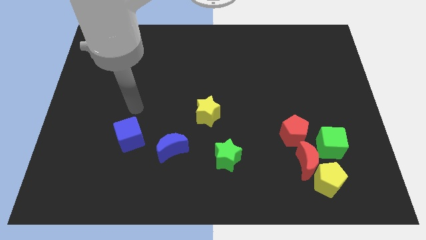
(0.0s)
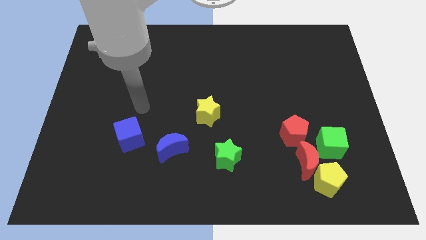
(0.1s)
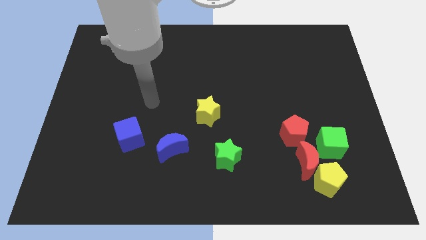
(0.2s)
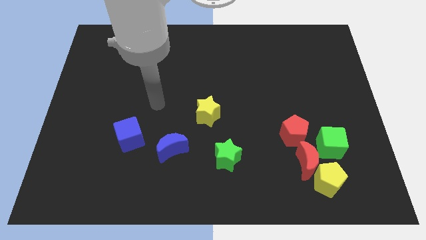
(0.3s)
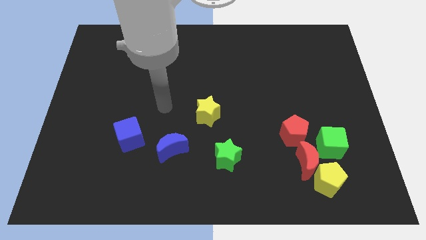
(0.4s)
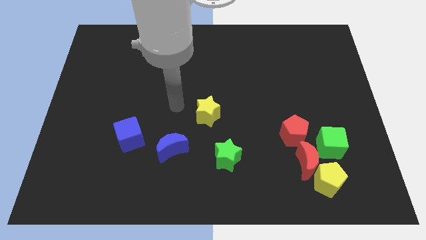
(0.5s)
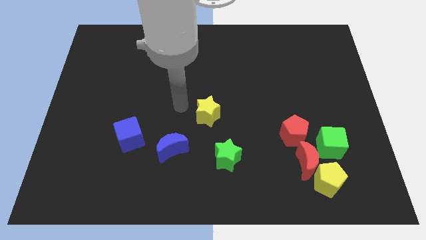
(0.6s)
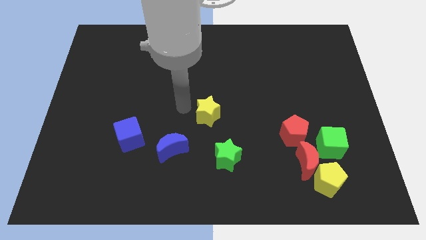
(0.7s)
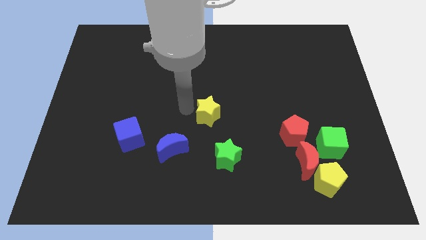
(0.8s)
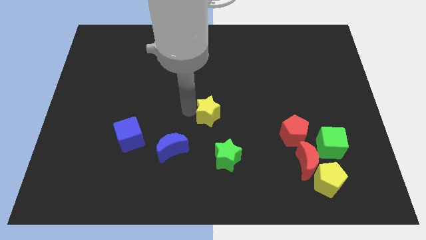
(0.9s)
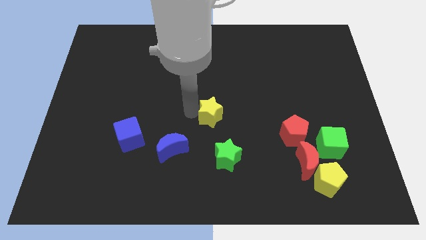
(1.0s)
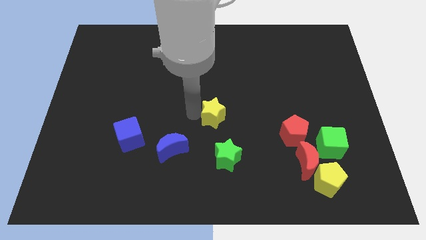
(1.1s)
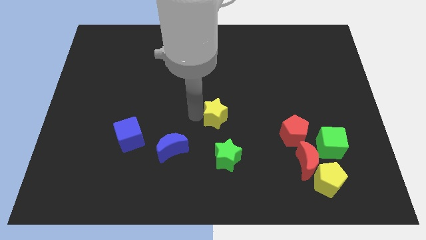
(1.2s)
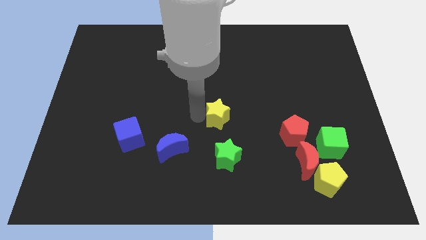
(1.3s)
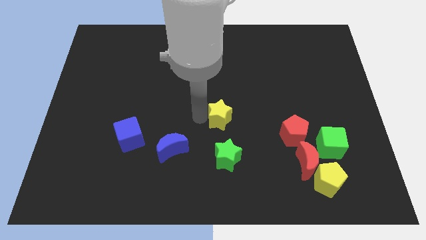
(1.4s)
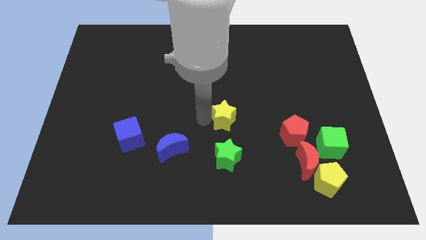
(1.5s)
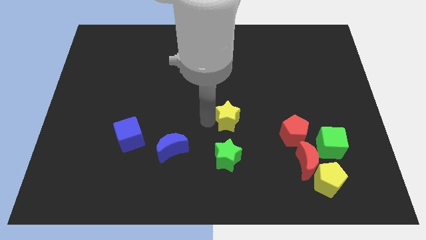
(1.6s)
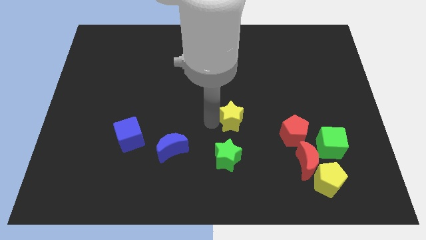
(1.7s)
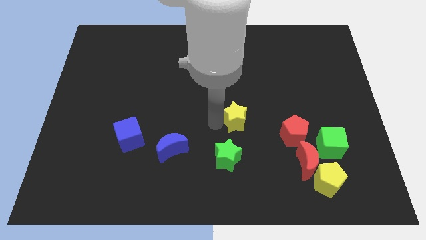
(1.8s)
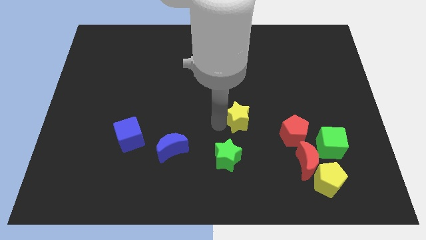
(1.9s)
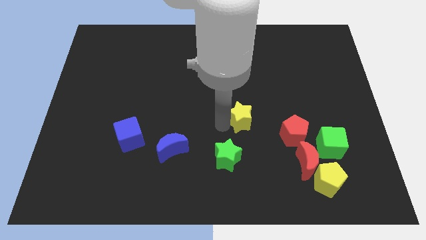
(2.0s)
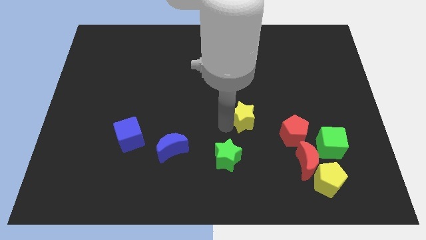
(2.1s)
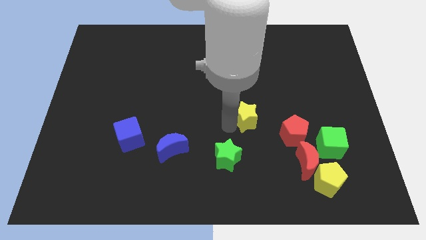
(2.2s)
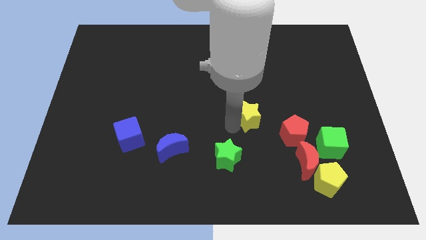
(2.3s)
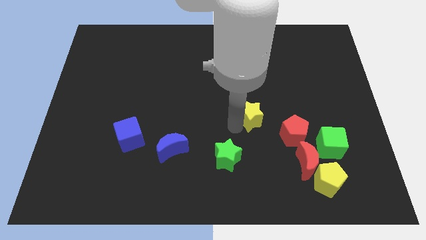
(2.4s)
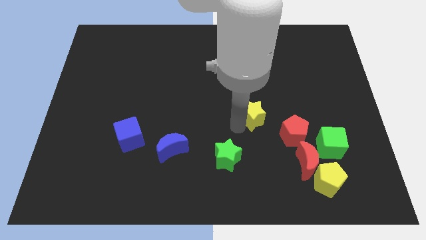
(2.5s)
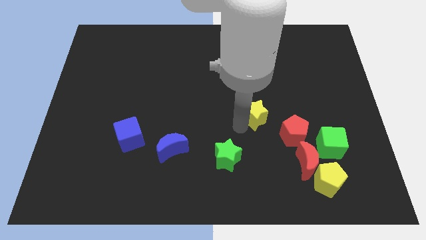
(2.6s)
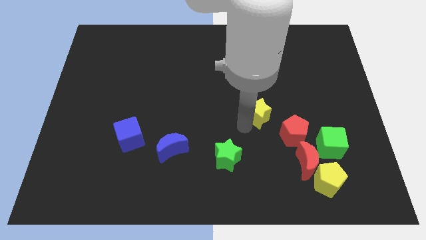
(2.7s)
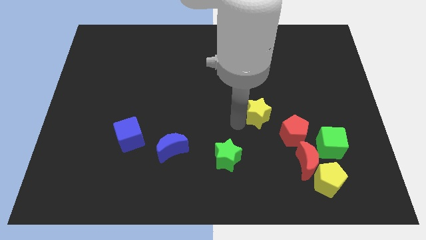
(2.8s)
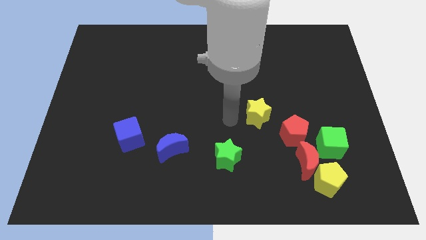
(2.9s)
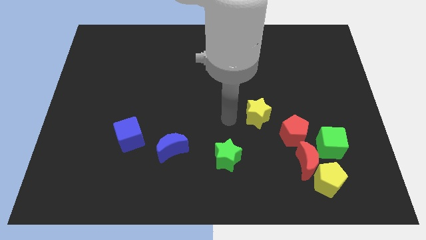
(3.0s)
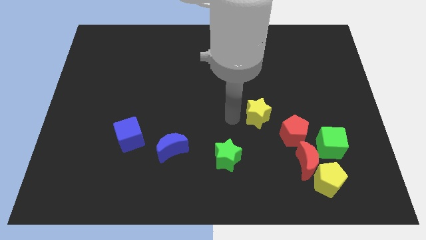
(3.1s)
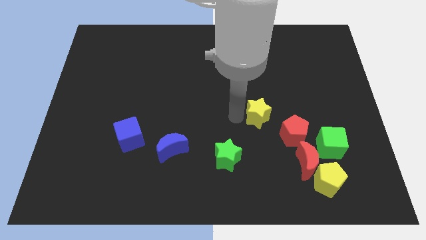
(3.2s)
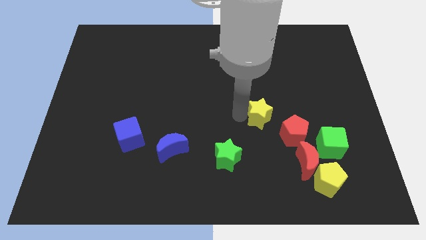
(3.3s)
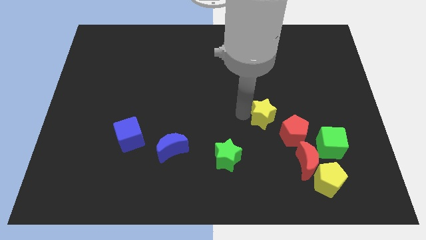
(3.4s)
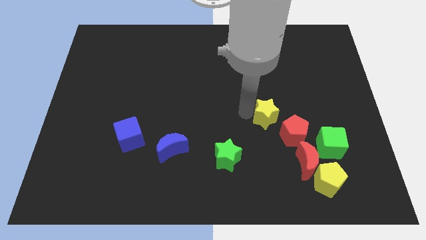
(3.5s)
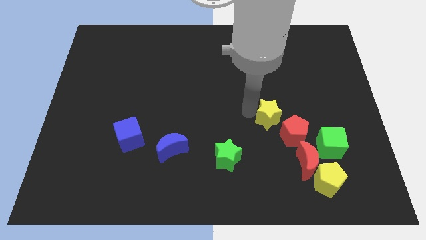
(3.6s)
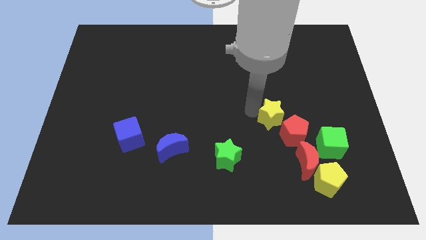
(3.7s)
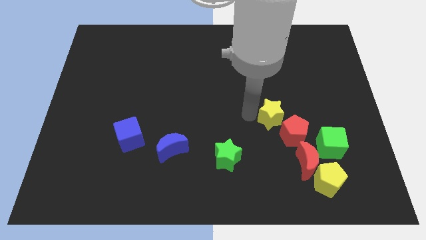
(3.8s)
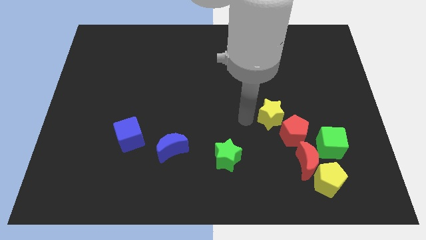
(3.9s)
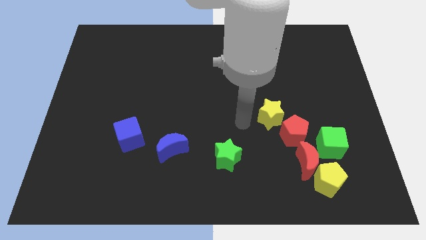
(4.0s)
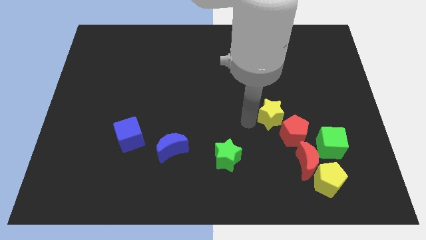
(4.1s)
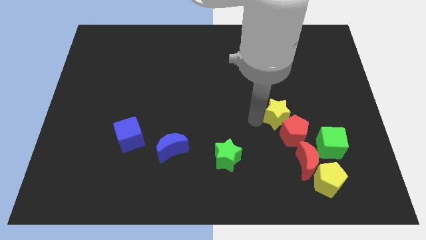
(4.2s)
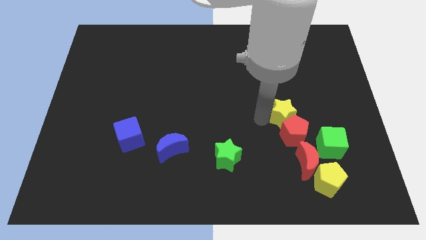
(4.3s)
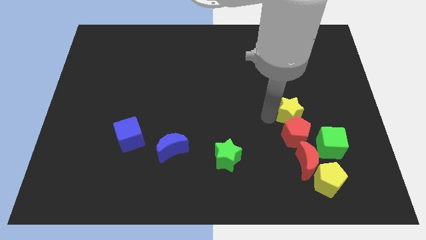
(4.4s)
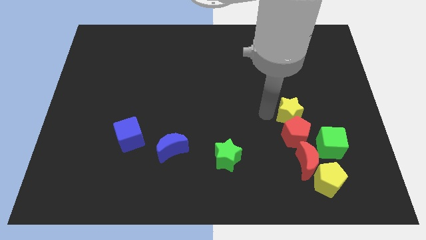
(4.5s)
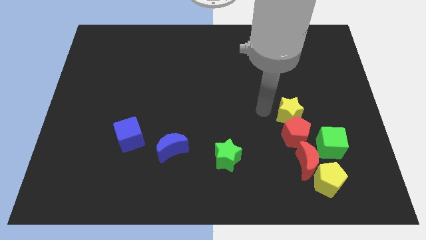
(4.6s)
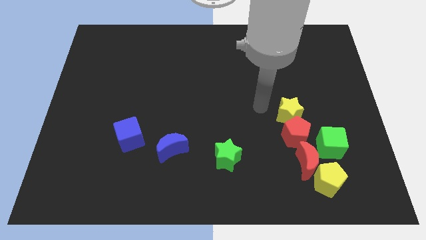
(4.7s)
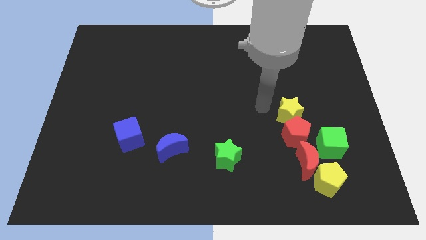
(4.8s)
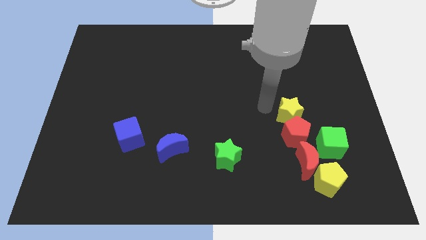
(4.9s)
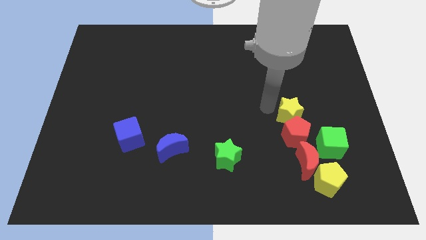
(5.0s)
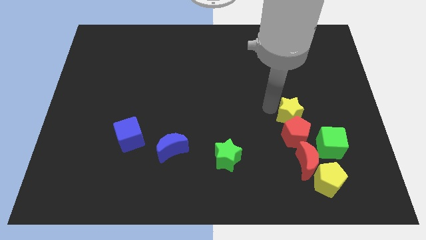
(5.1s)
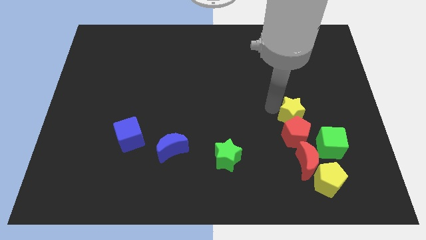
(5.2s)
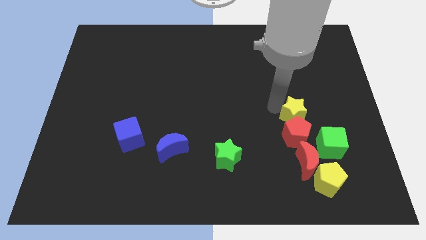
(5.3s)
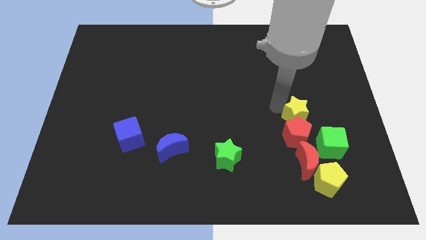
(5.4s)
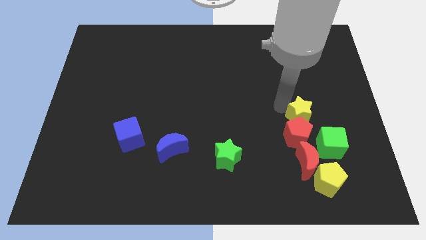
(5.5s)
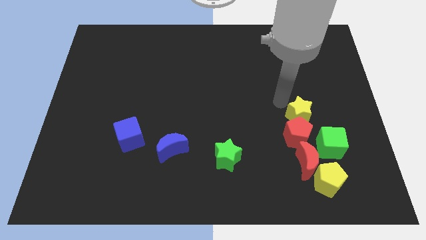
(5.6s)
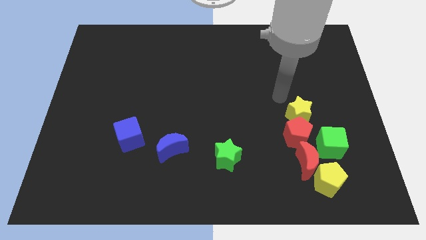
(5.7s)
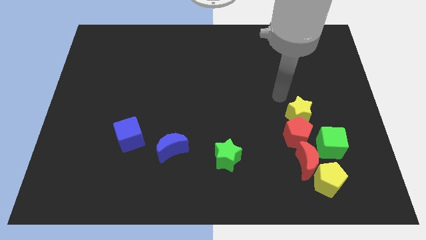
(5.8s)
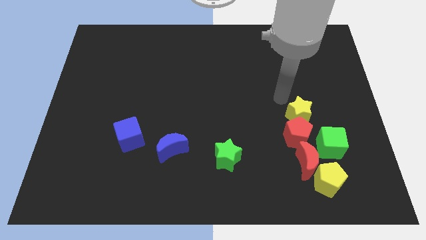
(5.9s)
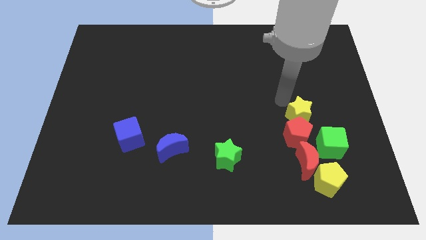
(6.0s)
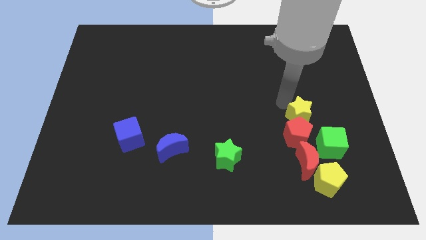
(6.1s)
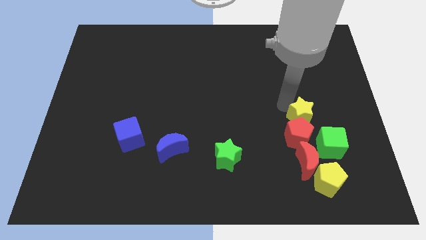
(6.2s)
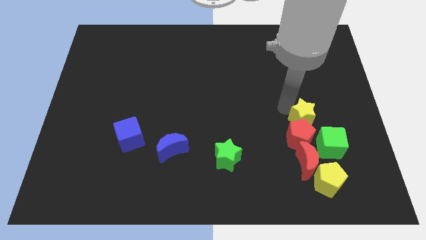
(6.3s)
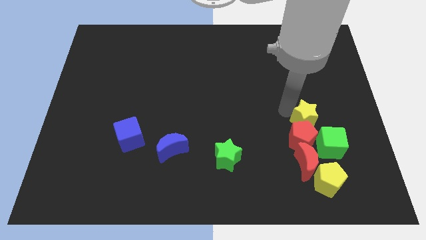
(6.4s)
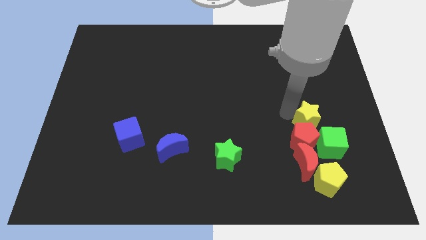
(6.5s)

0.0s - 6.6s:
slide the yellow star to the top of the yellow pentagon

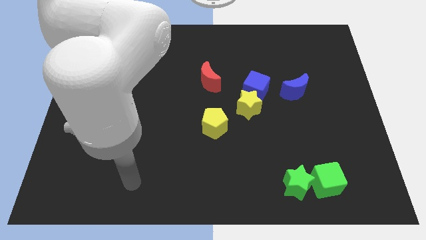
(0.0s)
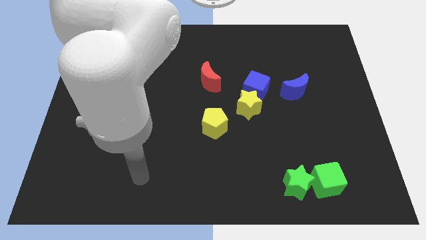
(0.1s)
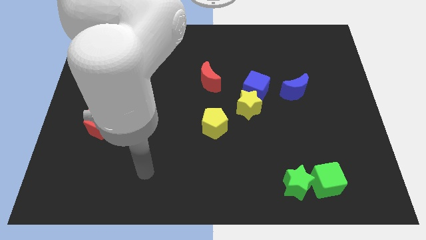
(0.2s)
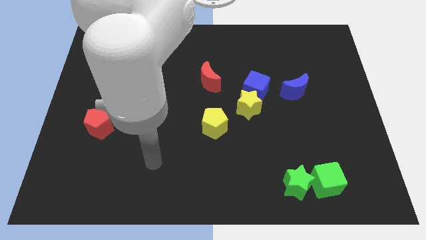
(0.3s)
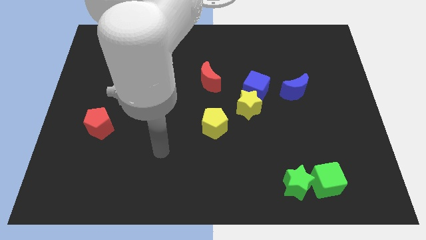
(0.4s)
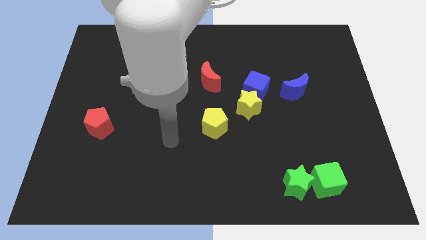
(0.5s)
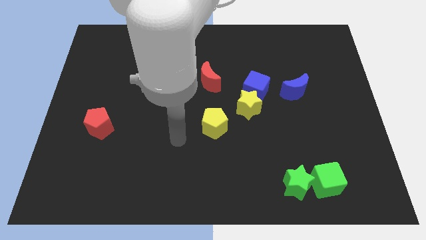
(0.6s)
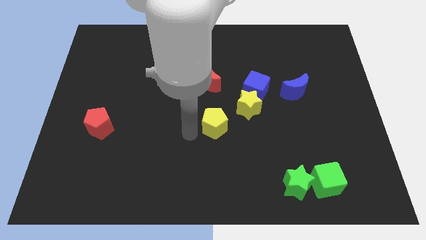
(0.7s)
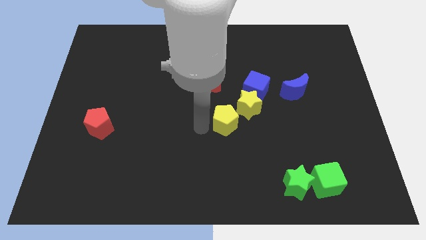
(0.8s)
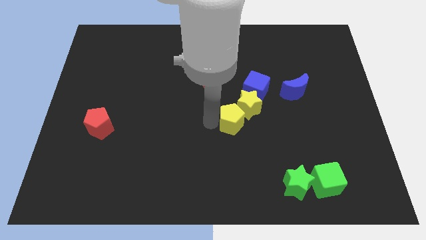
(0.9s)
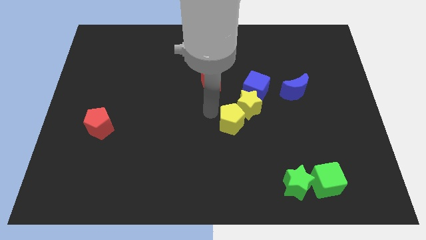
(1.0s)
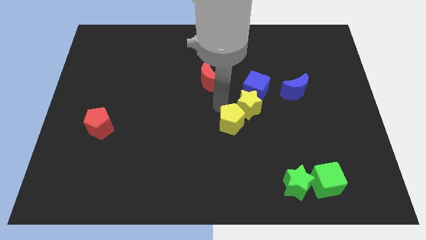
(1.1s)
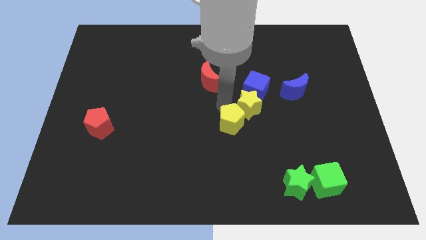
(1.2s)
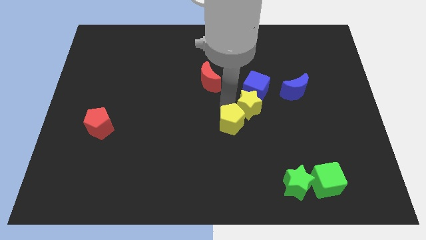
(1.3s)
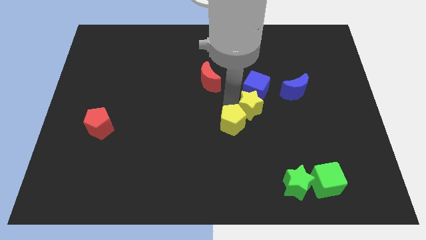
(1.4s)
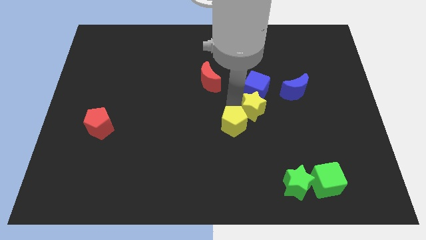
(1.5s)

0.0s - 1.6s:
slide the yellow star to the bottom left side of the blue moon
